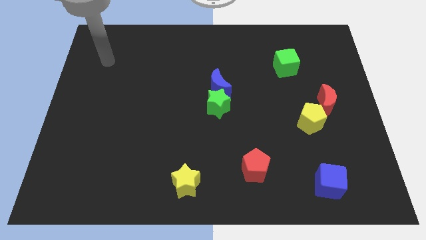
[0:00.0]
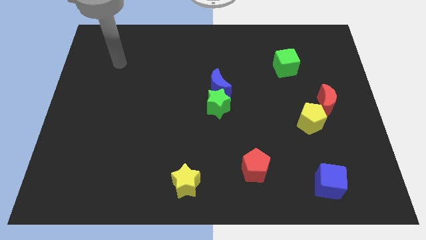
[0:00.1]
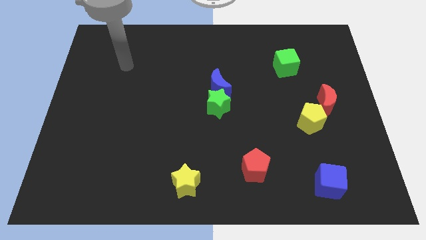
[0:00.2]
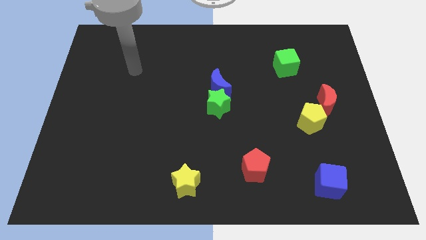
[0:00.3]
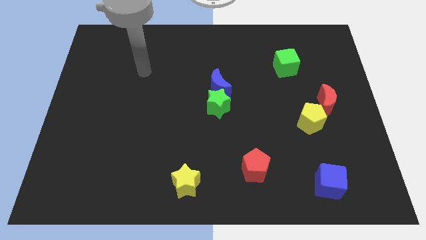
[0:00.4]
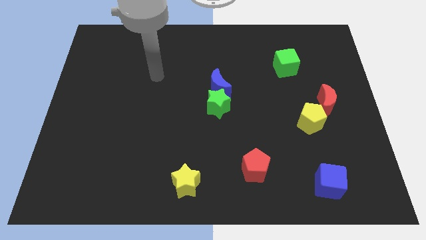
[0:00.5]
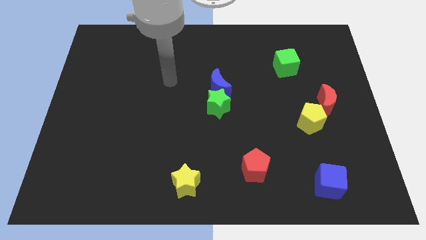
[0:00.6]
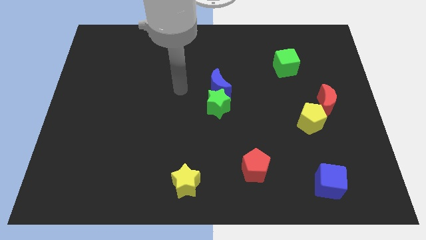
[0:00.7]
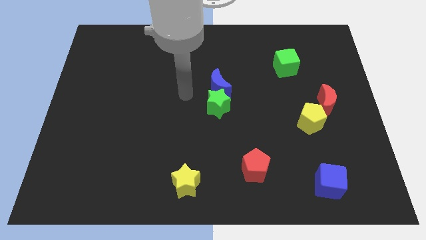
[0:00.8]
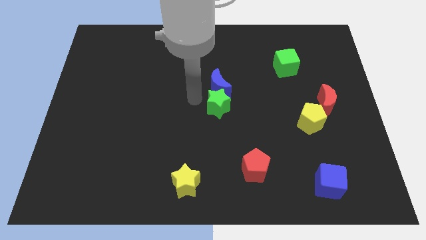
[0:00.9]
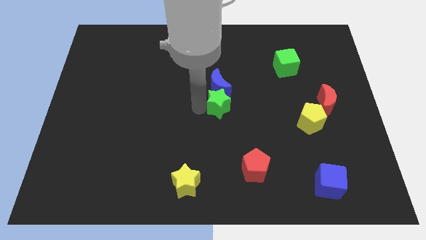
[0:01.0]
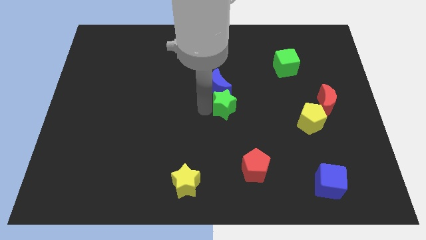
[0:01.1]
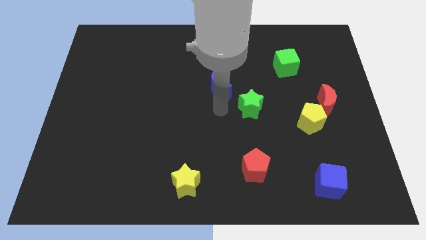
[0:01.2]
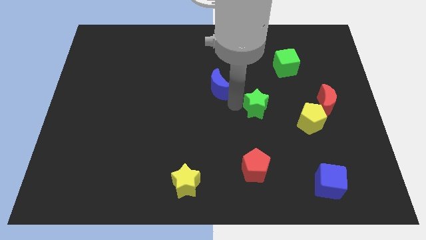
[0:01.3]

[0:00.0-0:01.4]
pull the blue moon apart from the green star

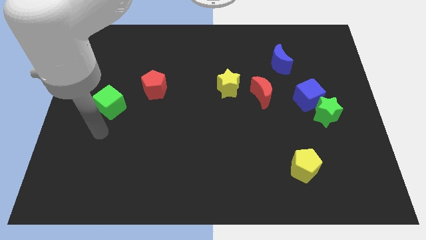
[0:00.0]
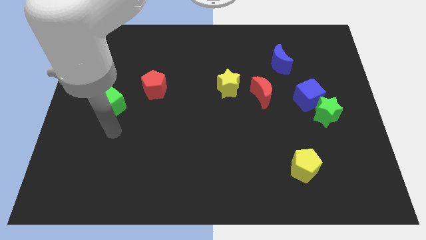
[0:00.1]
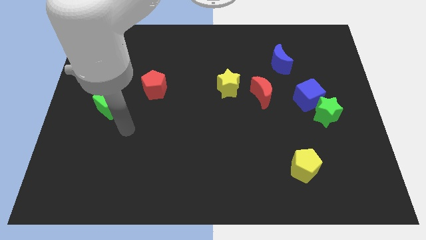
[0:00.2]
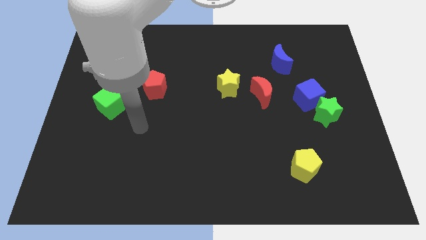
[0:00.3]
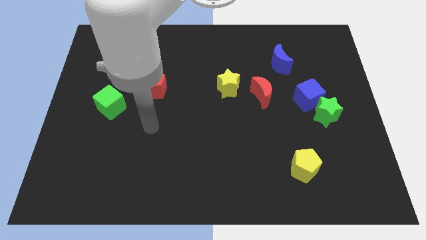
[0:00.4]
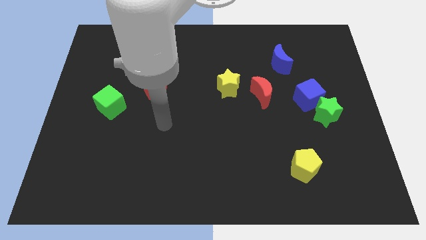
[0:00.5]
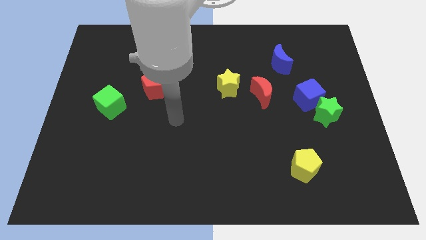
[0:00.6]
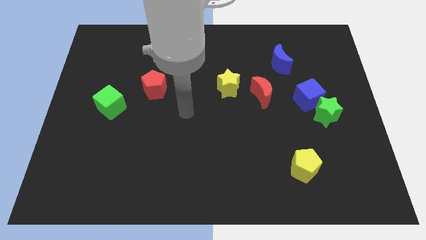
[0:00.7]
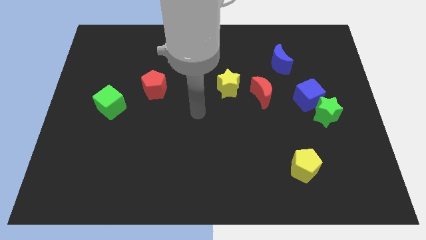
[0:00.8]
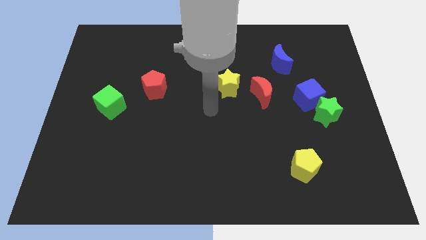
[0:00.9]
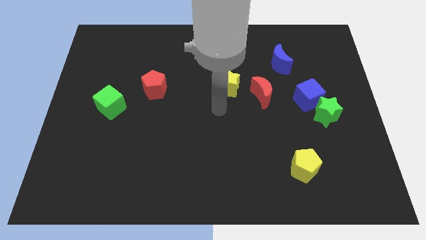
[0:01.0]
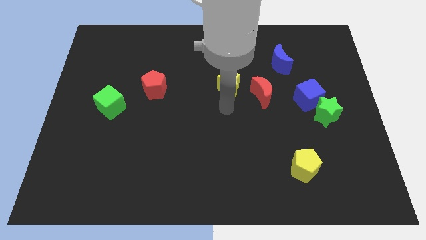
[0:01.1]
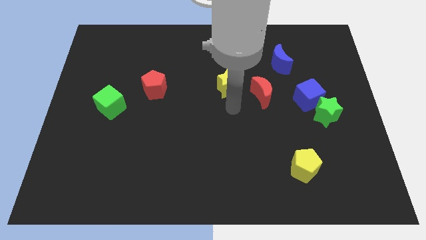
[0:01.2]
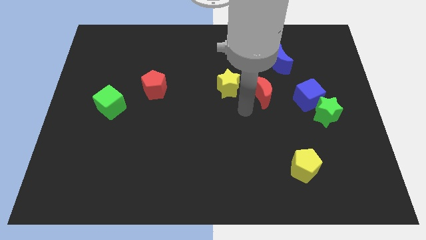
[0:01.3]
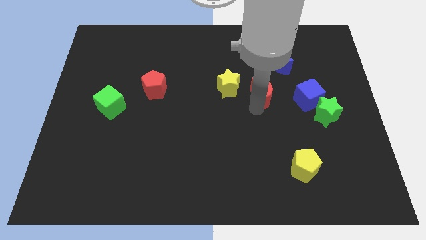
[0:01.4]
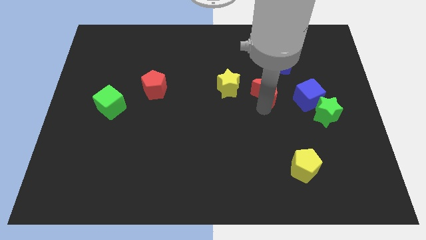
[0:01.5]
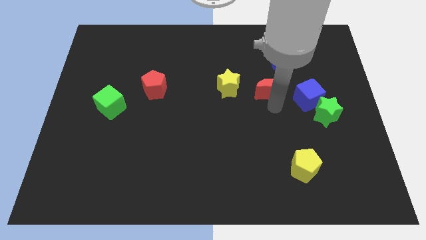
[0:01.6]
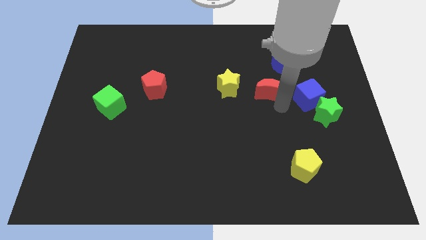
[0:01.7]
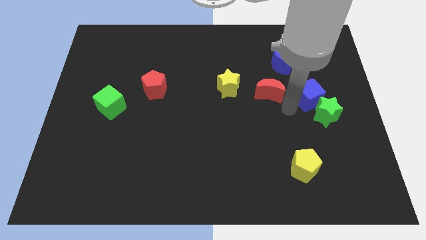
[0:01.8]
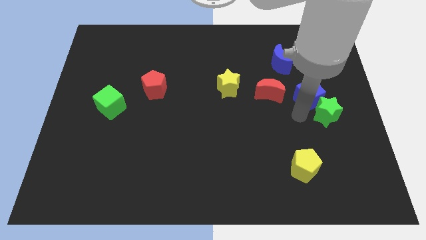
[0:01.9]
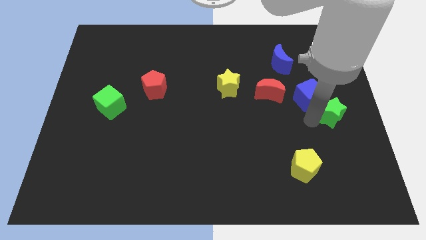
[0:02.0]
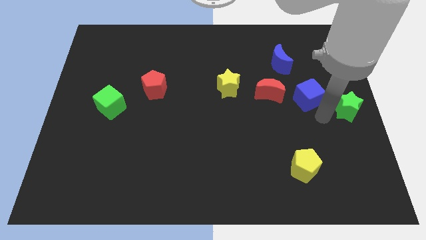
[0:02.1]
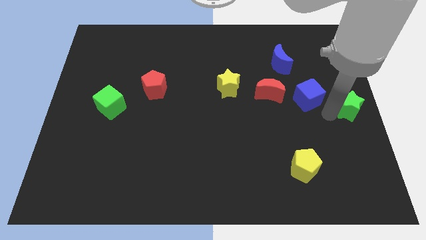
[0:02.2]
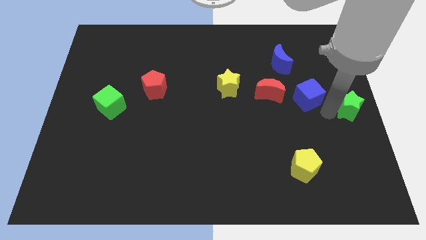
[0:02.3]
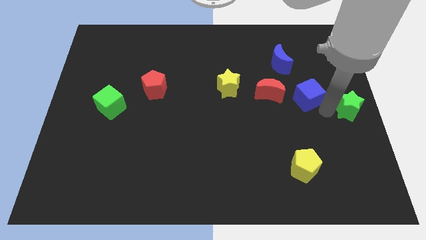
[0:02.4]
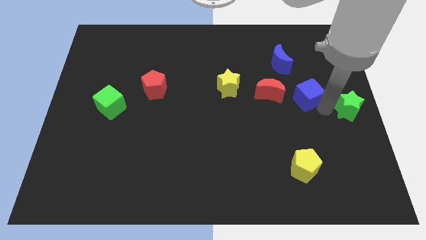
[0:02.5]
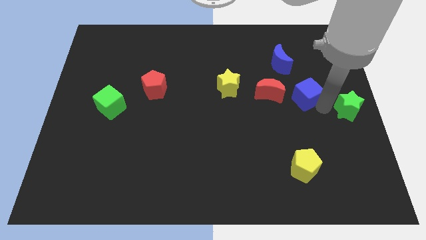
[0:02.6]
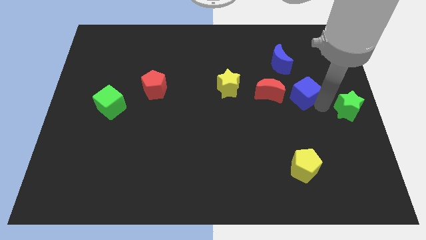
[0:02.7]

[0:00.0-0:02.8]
move the blue cube away from the green star

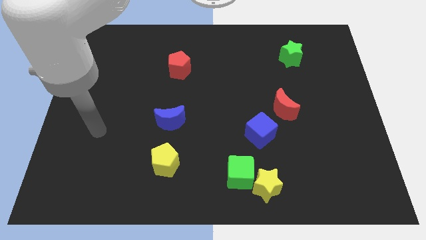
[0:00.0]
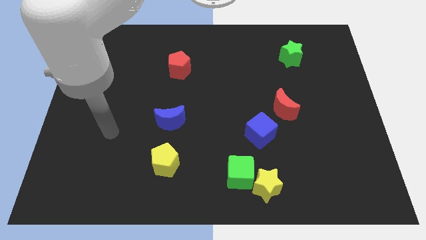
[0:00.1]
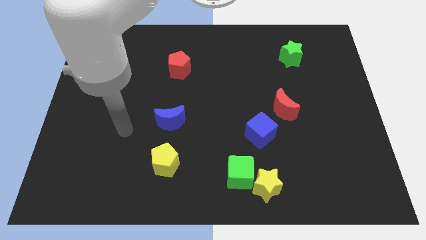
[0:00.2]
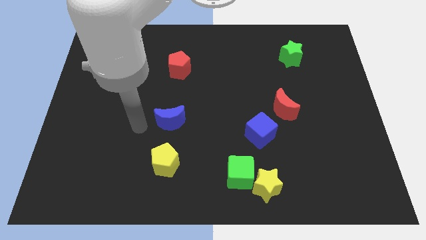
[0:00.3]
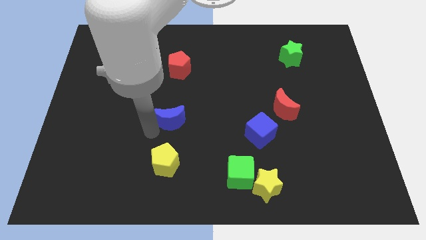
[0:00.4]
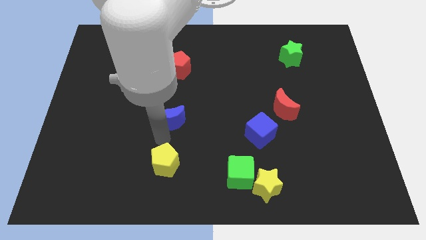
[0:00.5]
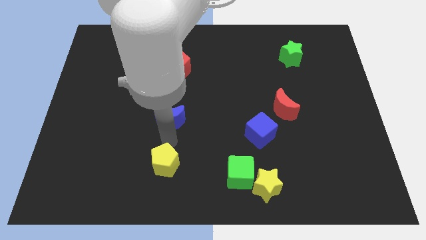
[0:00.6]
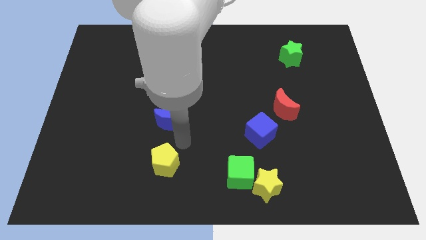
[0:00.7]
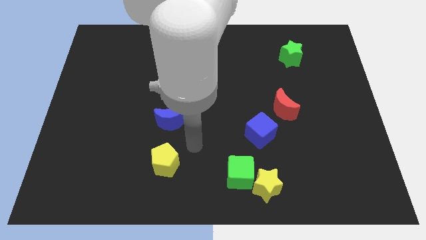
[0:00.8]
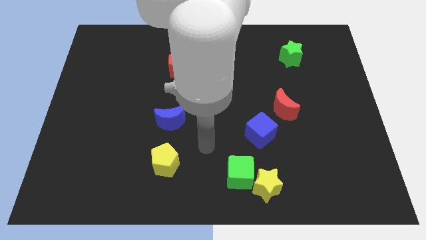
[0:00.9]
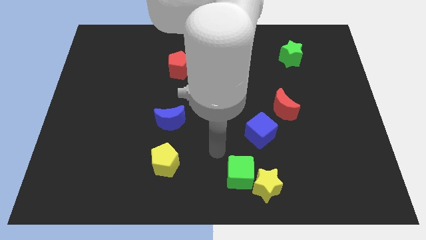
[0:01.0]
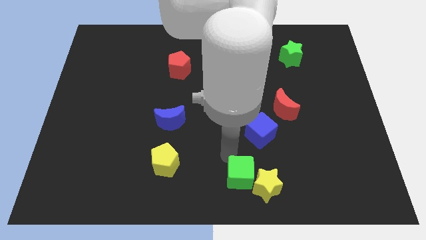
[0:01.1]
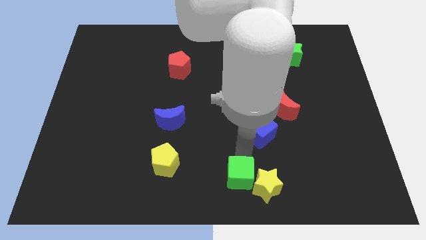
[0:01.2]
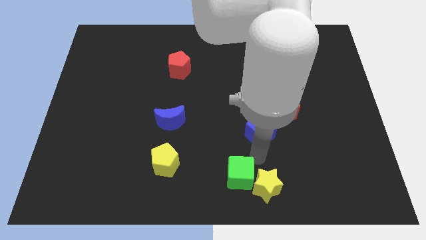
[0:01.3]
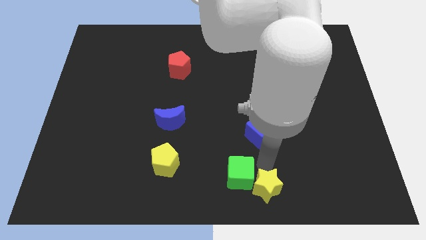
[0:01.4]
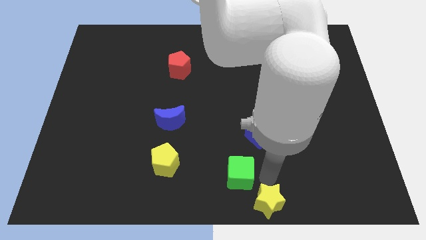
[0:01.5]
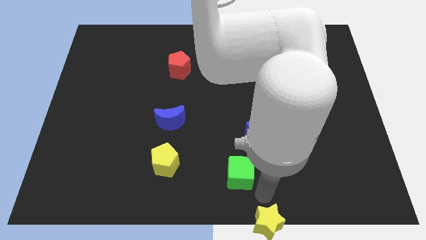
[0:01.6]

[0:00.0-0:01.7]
separate the green cube from the yellow star

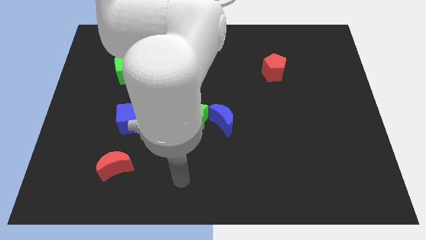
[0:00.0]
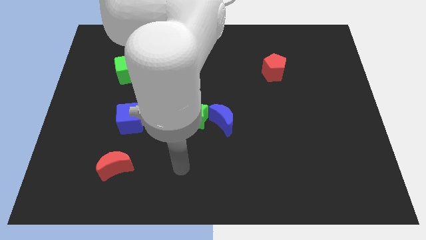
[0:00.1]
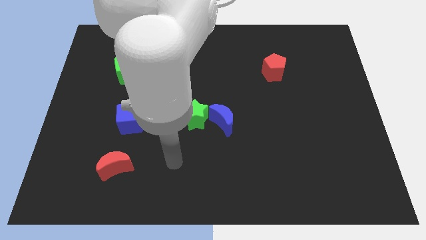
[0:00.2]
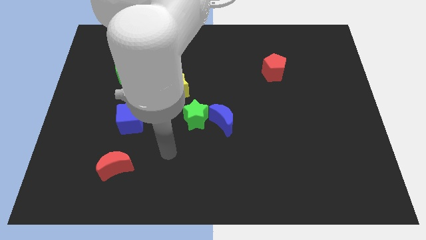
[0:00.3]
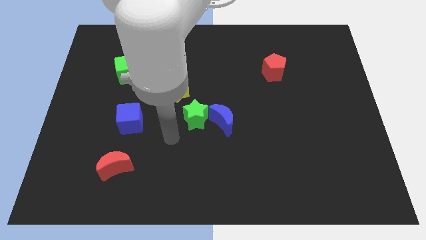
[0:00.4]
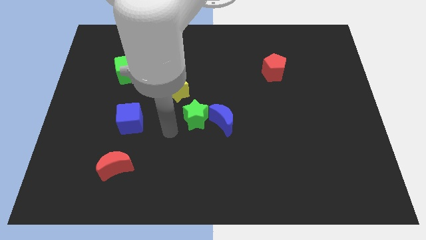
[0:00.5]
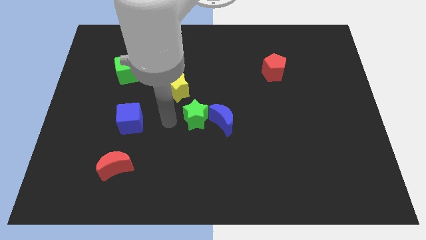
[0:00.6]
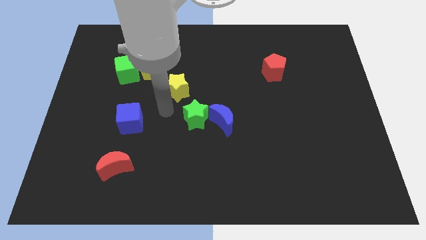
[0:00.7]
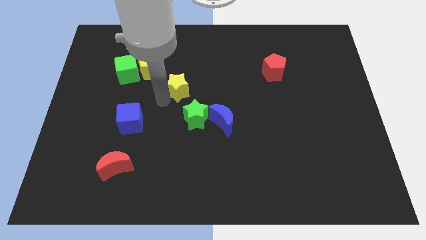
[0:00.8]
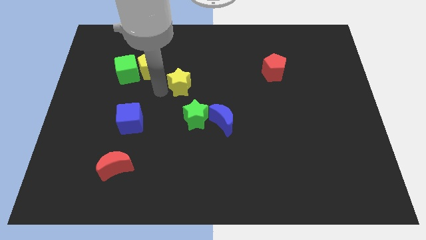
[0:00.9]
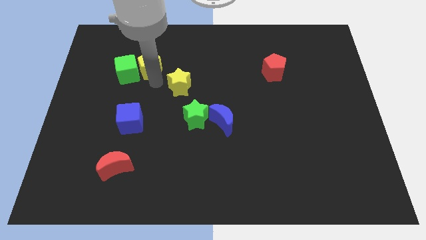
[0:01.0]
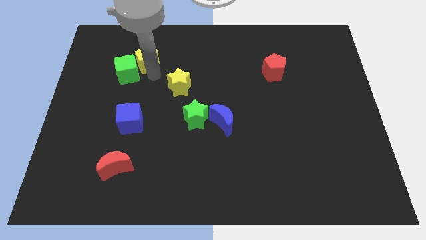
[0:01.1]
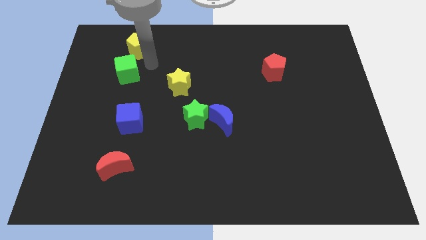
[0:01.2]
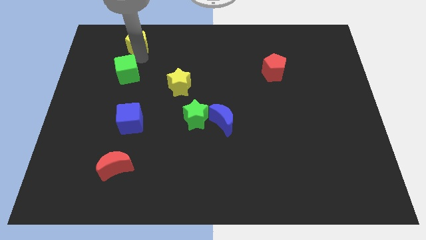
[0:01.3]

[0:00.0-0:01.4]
pull the green cube apart from the yellow pentagon

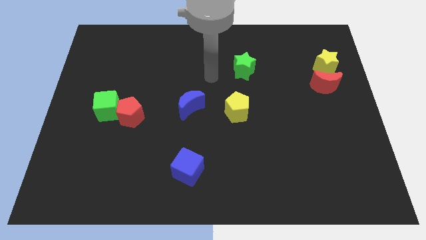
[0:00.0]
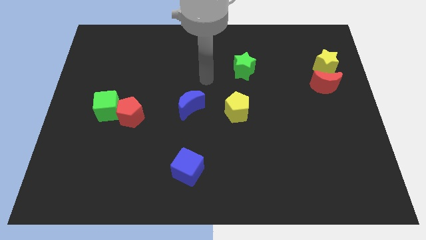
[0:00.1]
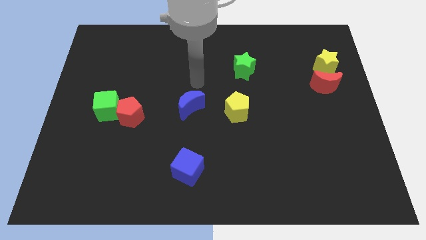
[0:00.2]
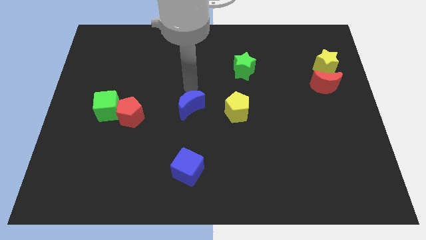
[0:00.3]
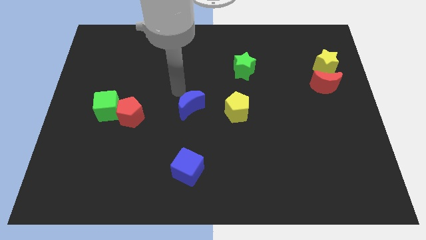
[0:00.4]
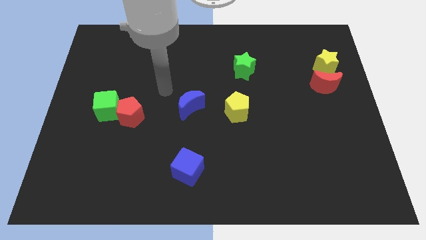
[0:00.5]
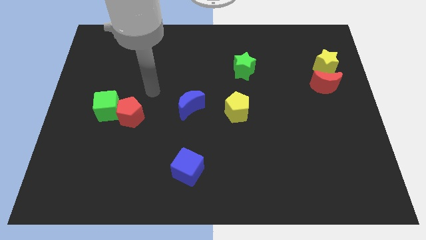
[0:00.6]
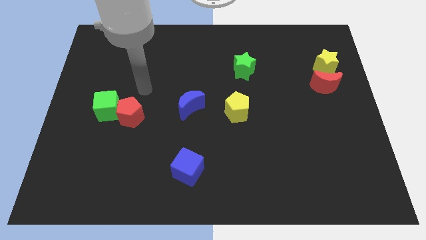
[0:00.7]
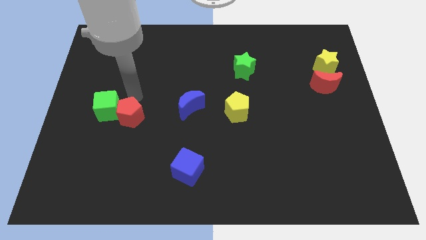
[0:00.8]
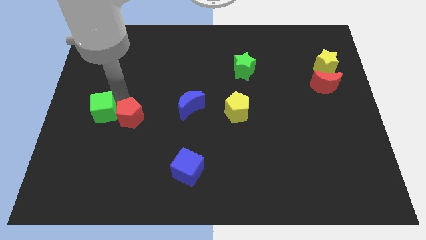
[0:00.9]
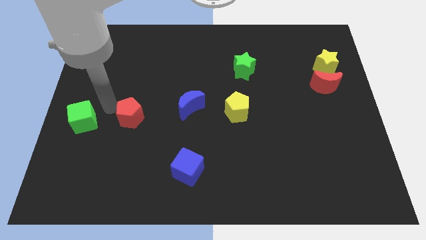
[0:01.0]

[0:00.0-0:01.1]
move the red pentagon away from the green cube

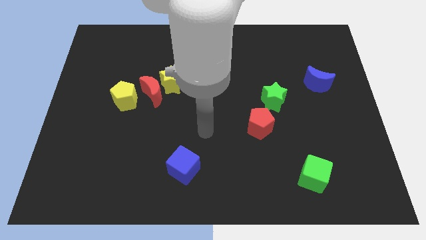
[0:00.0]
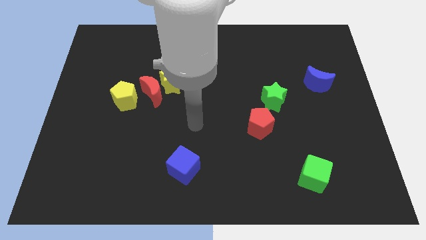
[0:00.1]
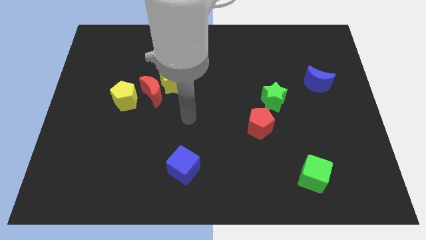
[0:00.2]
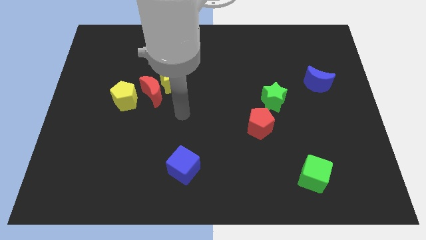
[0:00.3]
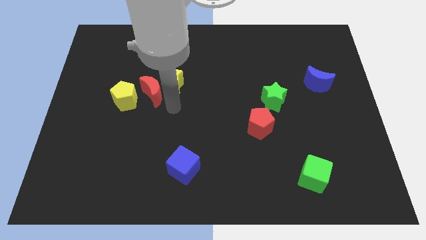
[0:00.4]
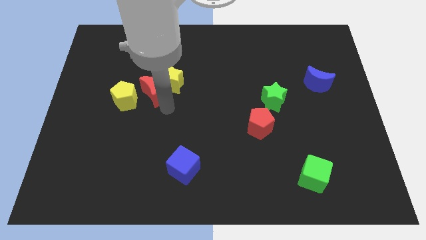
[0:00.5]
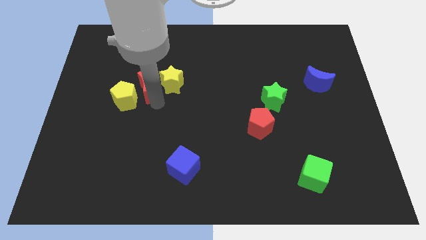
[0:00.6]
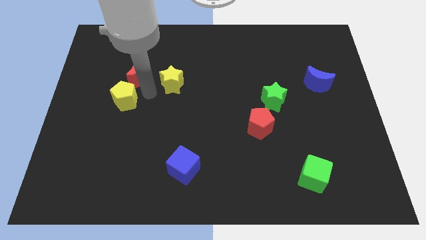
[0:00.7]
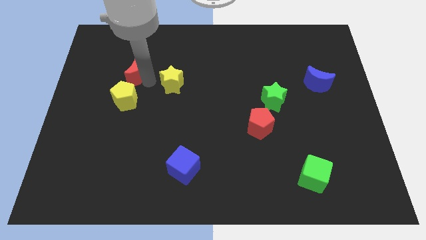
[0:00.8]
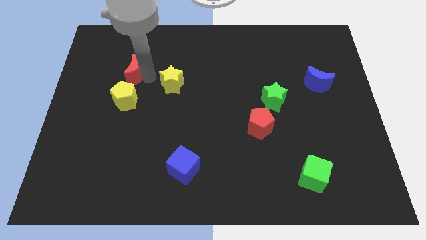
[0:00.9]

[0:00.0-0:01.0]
separate the yellow star from the red moon

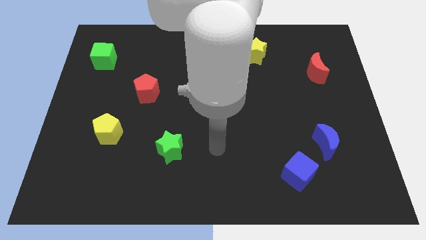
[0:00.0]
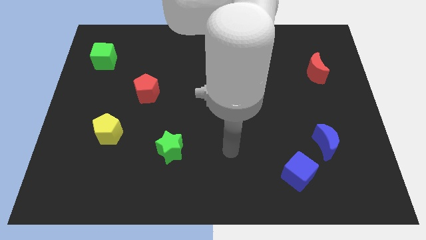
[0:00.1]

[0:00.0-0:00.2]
separate the blue moon from the blue cube
